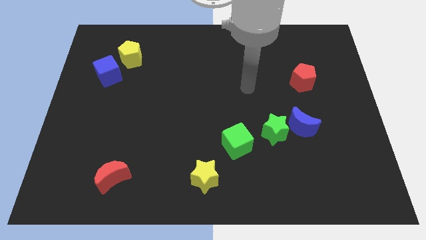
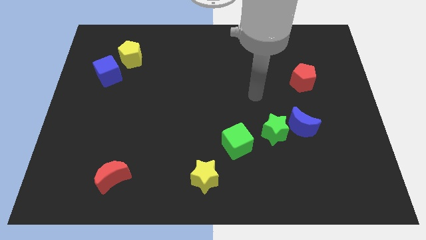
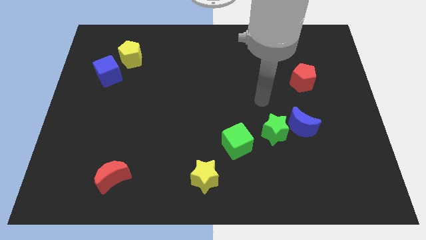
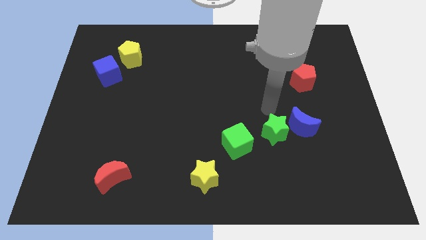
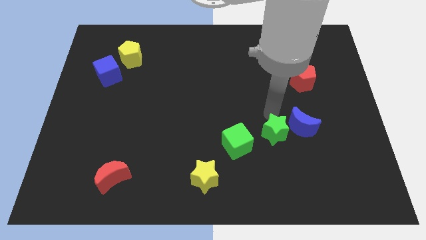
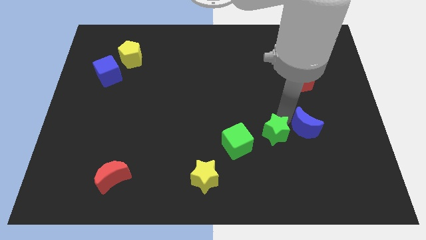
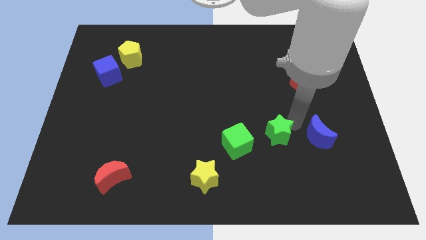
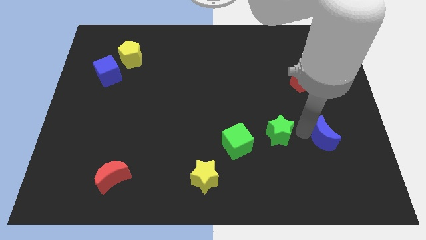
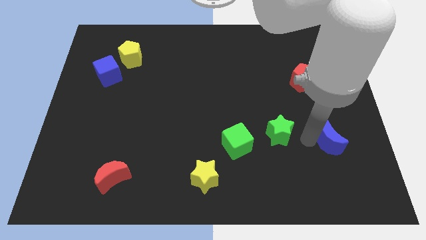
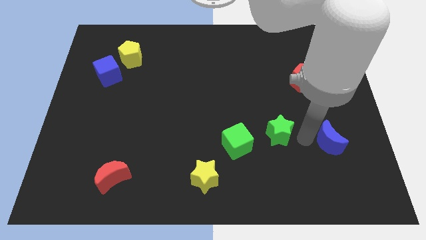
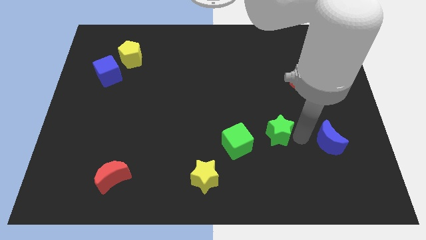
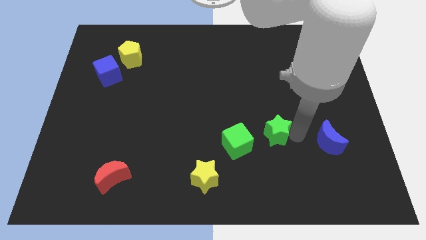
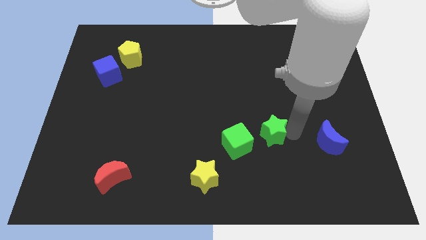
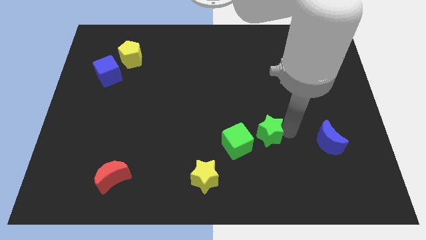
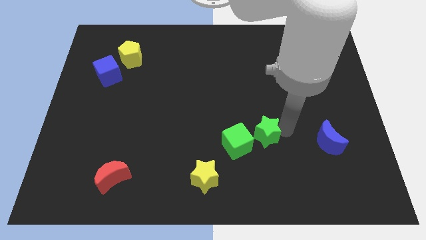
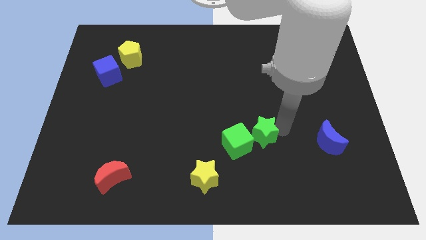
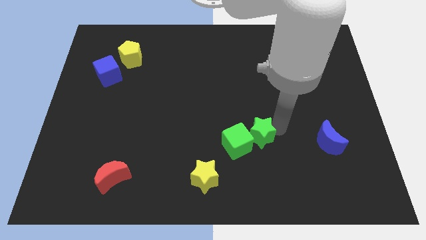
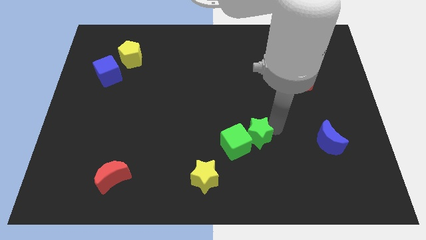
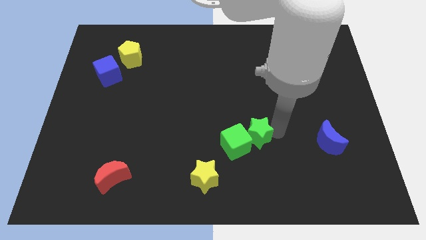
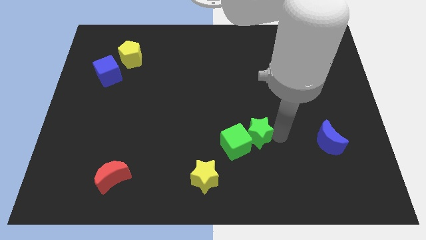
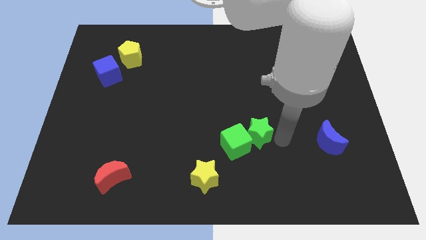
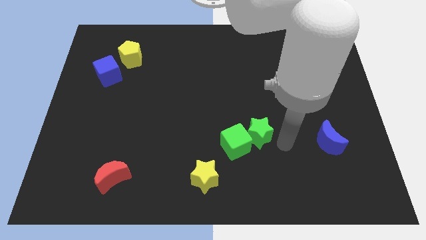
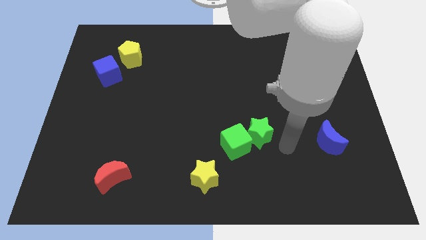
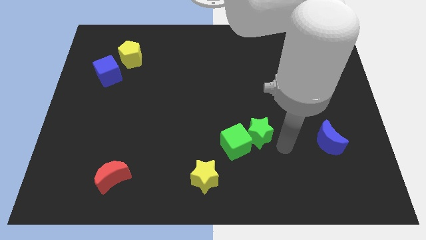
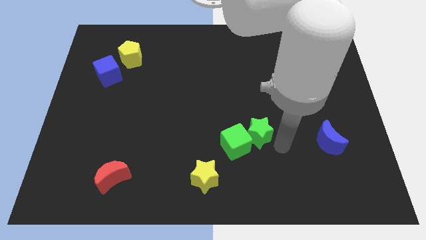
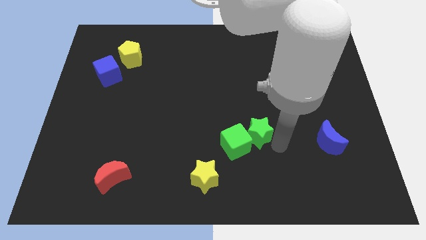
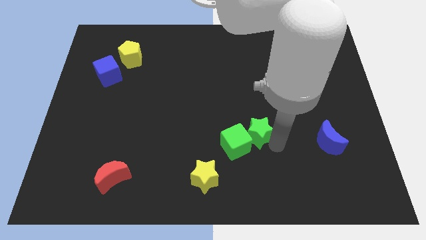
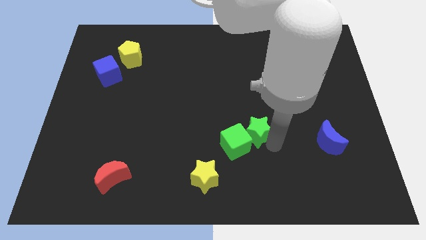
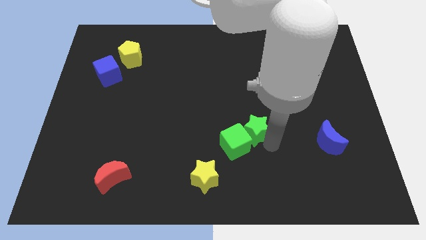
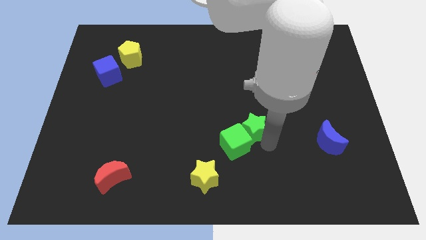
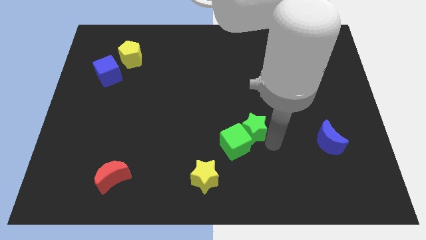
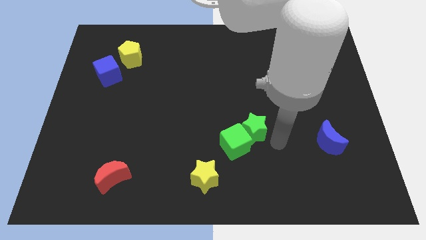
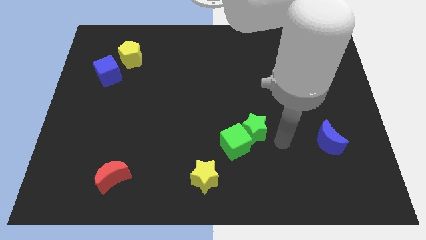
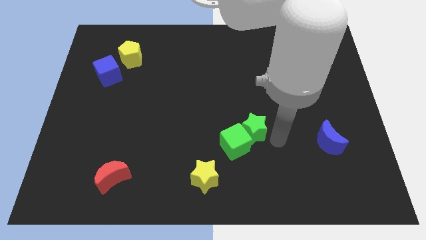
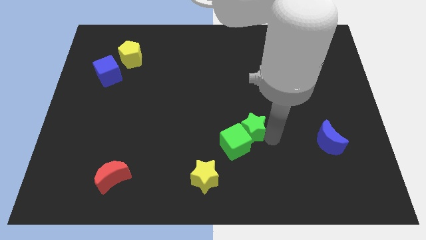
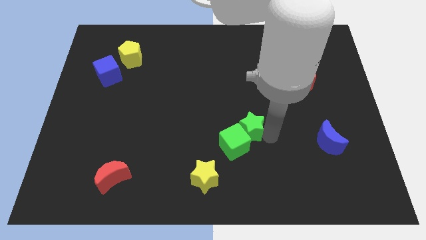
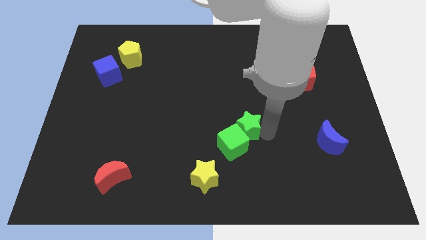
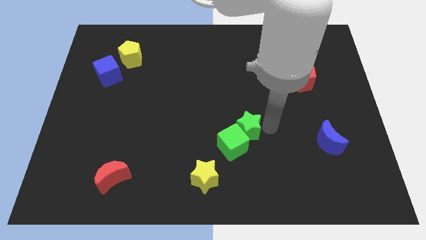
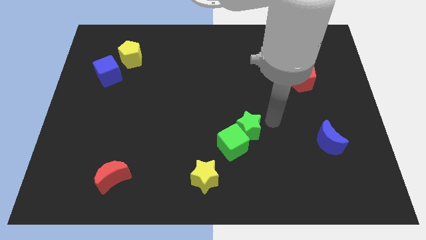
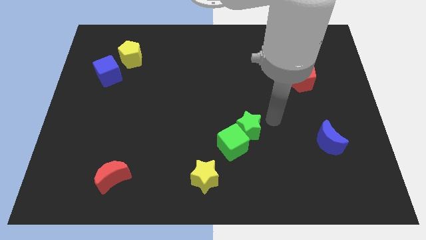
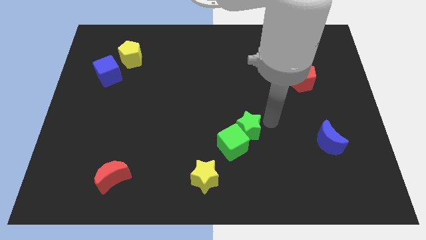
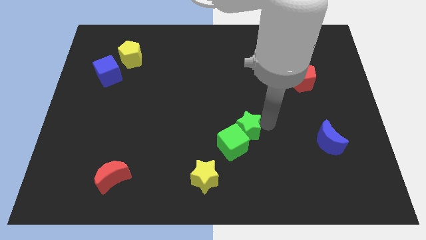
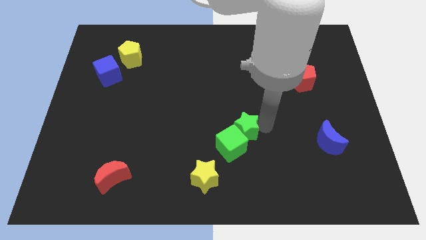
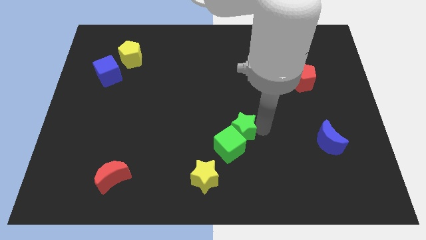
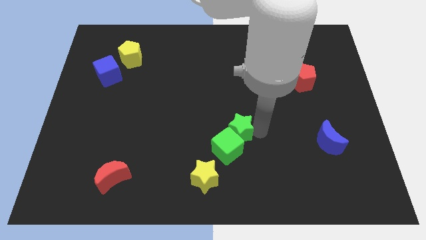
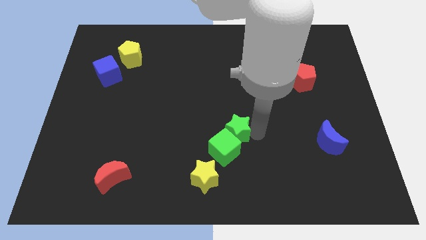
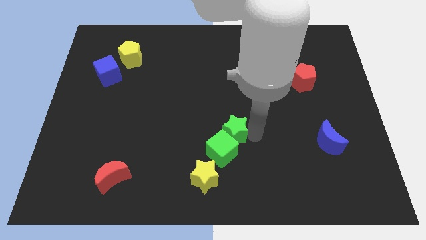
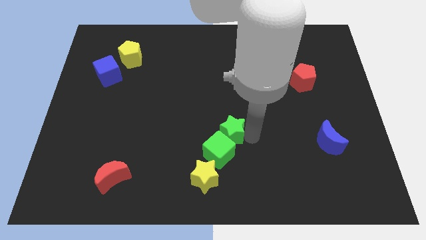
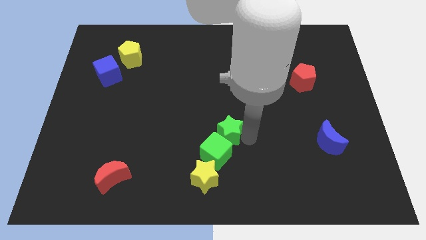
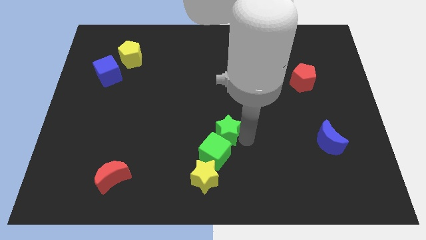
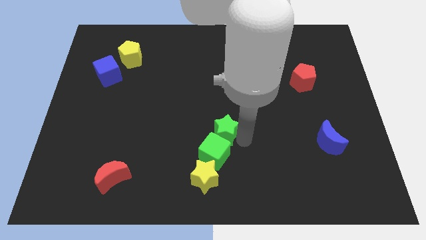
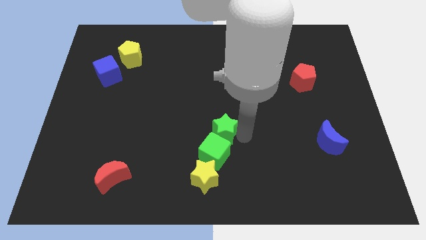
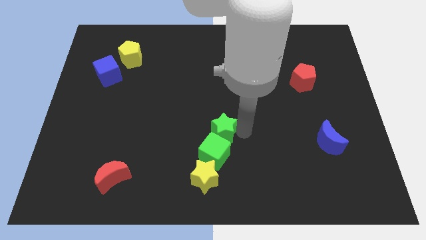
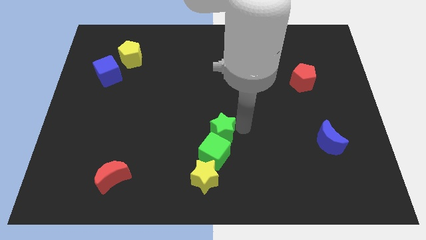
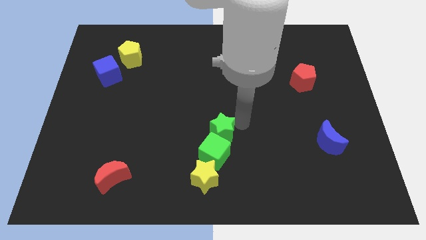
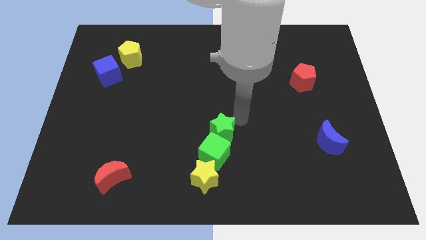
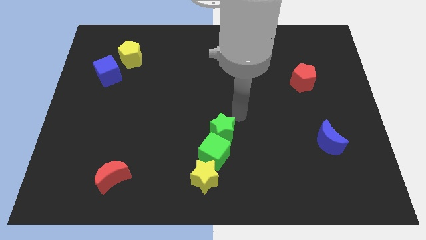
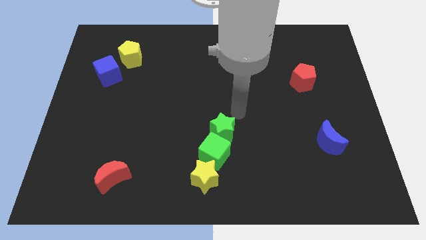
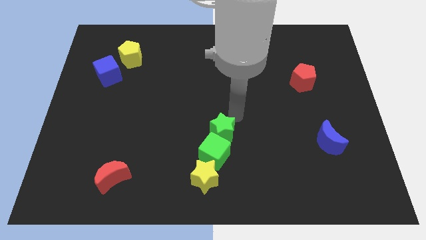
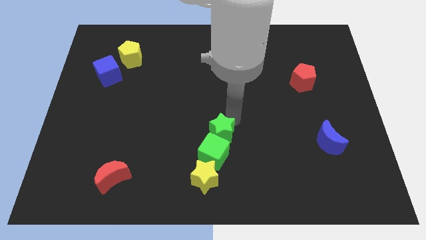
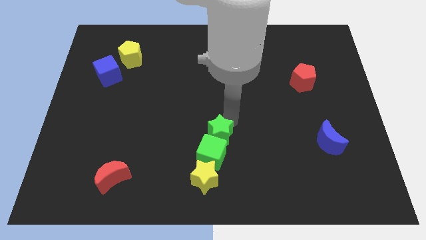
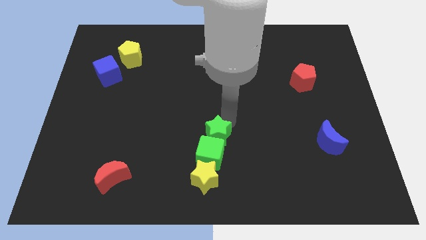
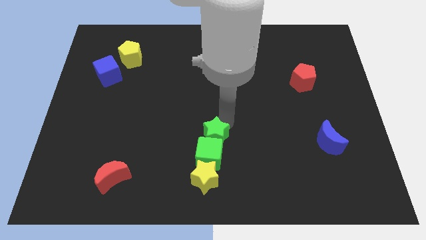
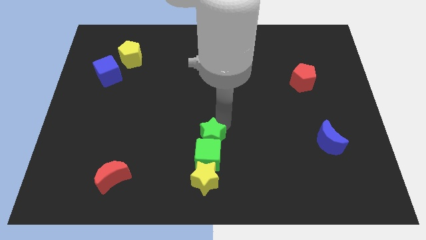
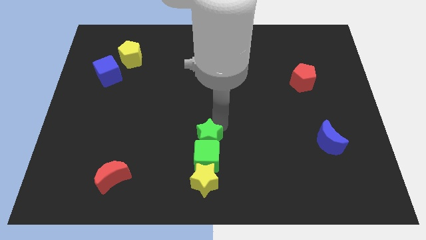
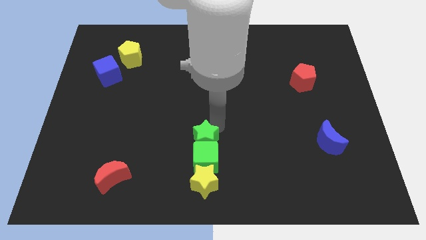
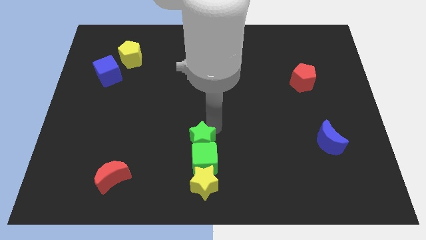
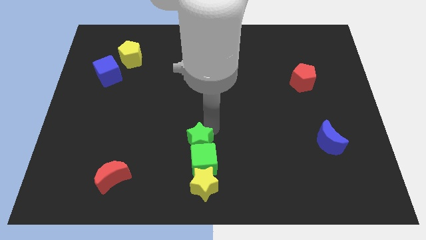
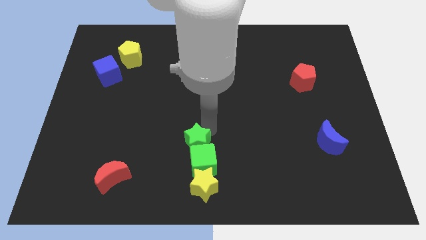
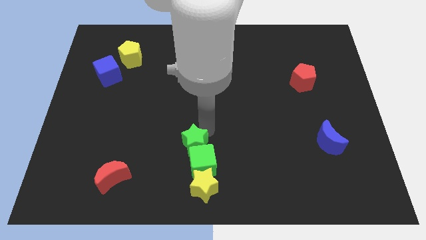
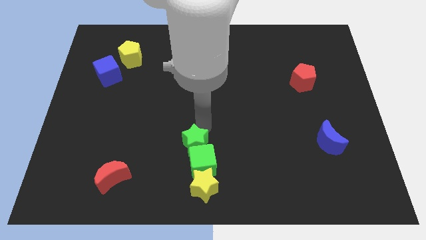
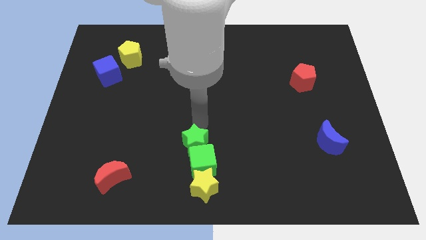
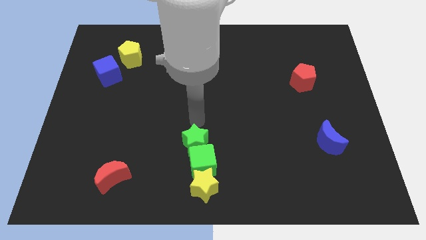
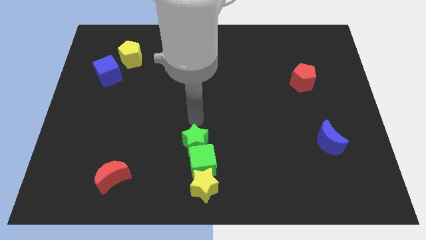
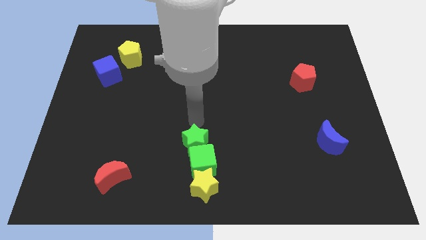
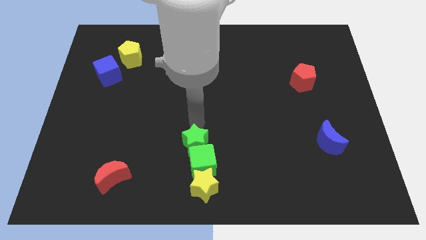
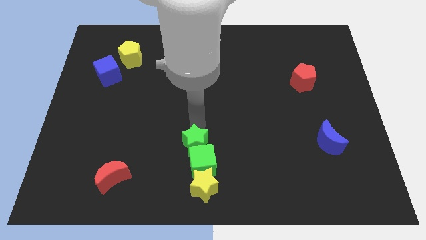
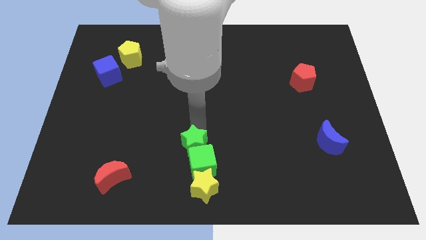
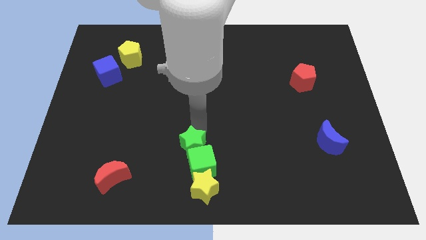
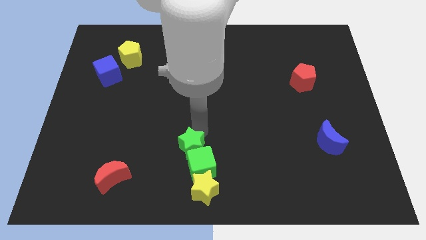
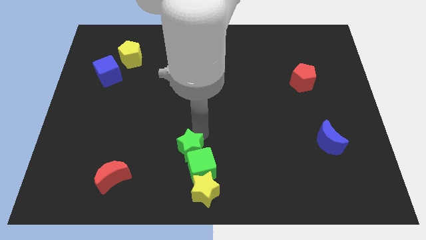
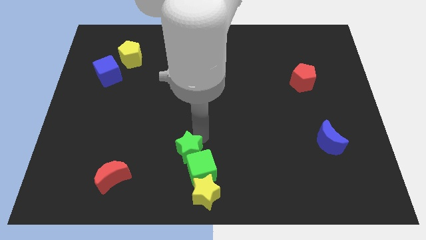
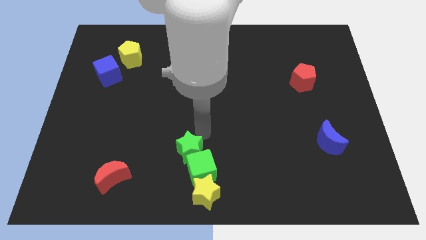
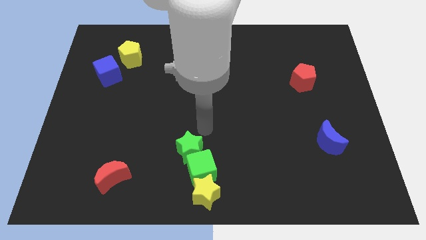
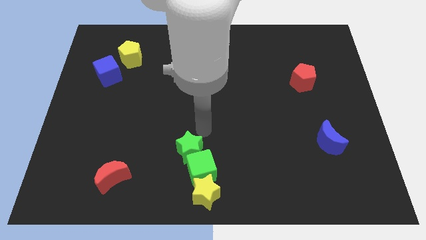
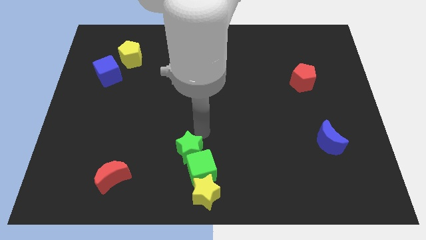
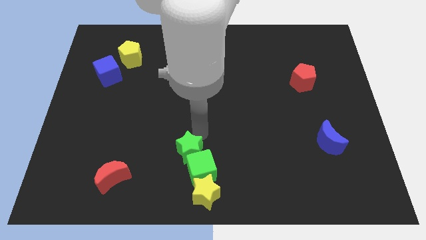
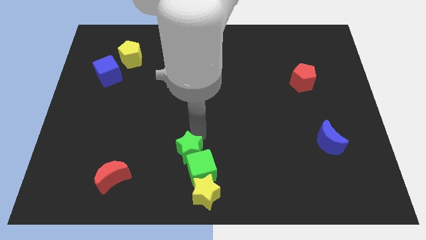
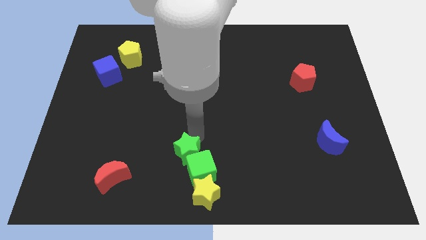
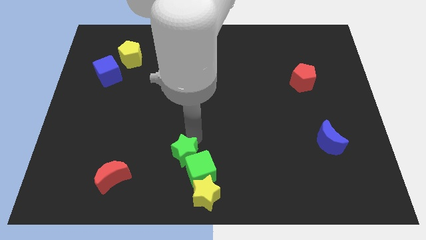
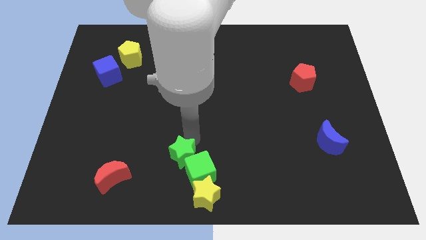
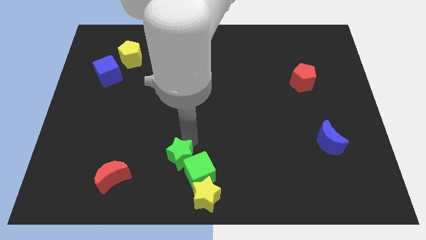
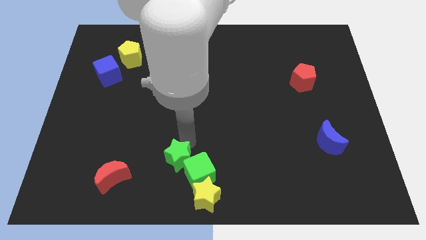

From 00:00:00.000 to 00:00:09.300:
put the green star just right of the red moon
